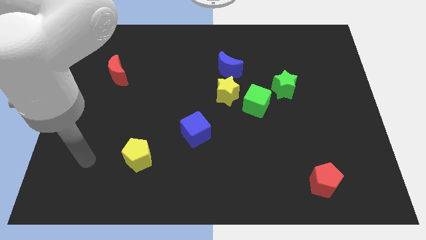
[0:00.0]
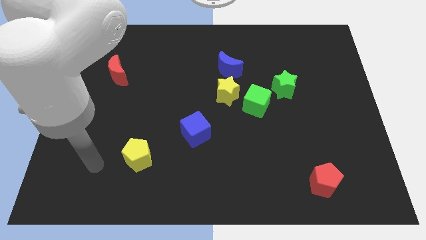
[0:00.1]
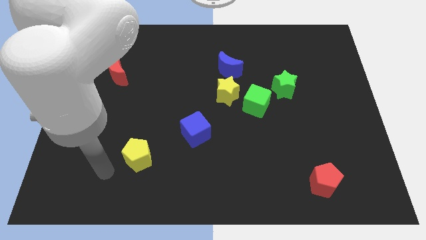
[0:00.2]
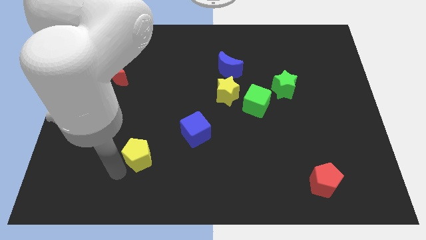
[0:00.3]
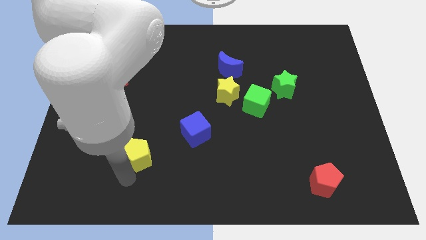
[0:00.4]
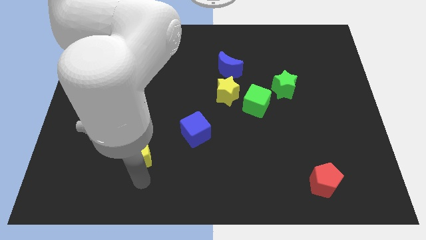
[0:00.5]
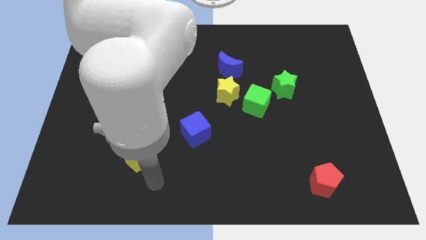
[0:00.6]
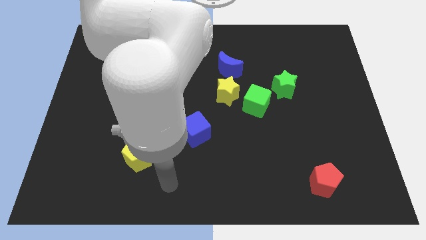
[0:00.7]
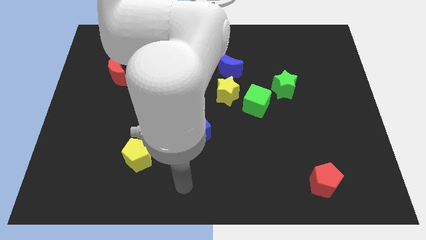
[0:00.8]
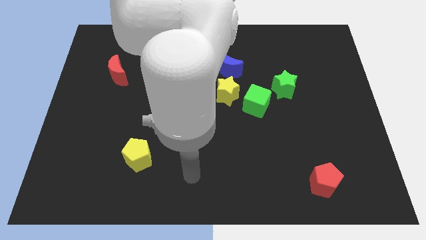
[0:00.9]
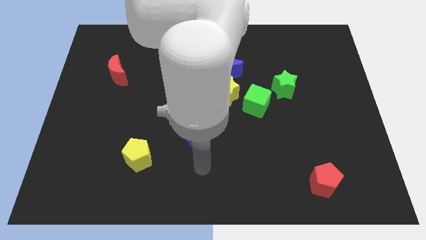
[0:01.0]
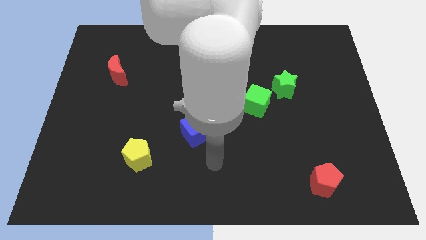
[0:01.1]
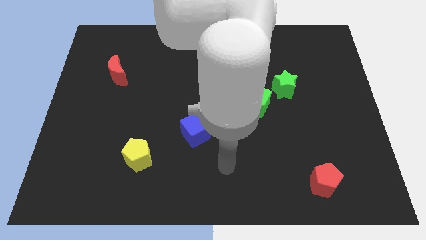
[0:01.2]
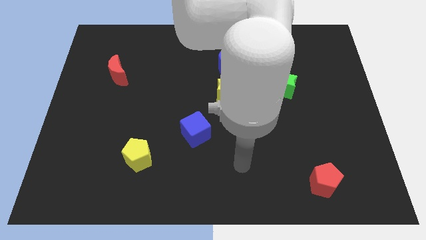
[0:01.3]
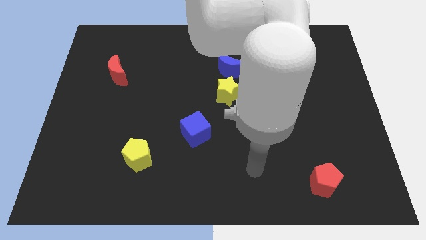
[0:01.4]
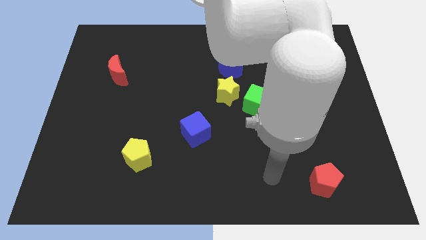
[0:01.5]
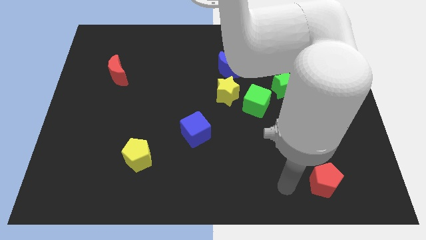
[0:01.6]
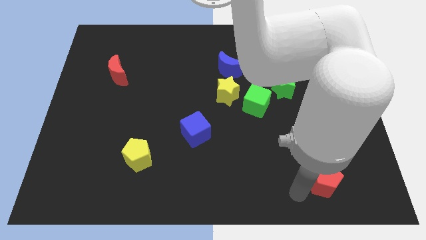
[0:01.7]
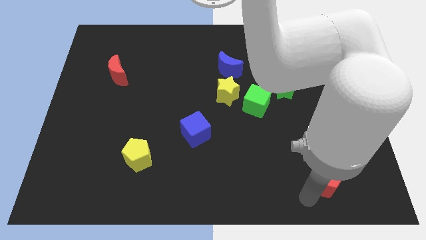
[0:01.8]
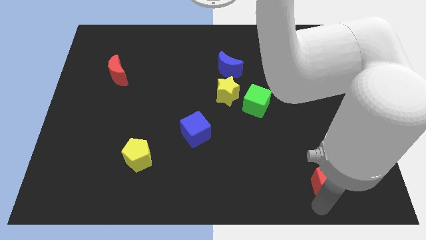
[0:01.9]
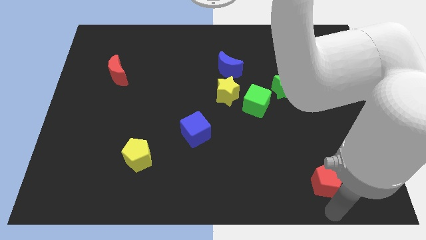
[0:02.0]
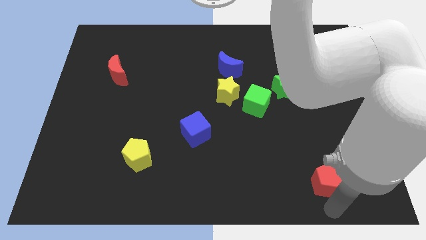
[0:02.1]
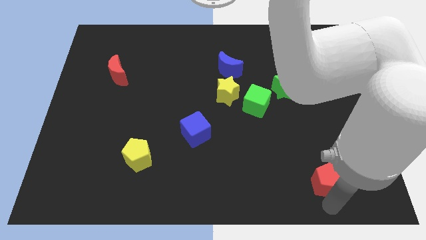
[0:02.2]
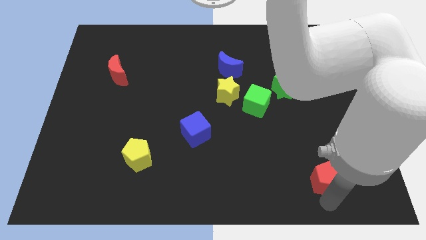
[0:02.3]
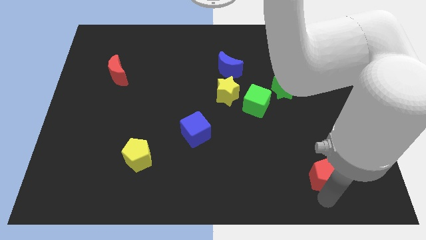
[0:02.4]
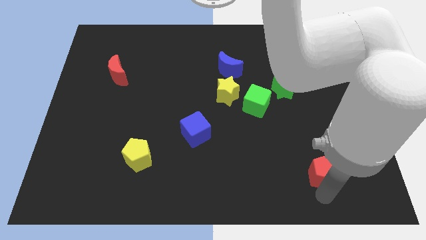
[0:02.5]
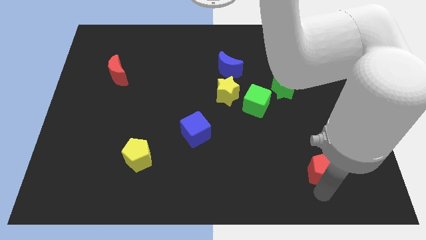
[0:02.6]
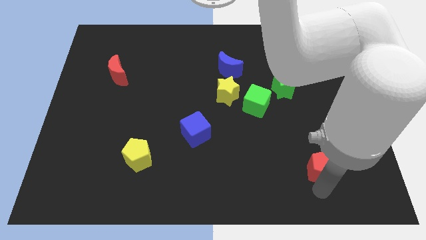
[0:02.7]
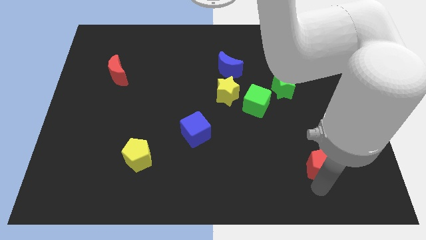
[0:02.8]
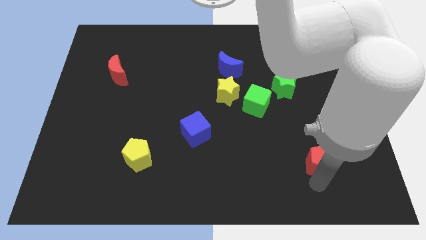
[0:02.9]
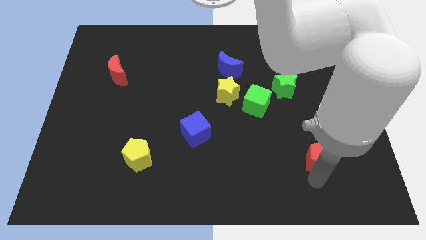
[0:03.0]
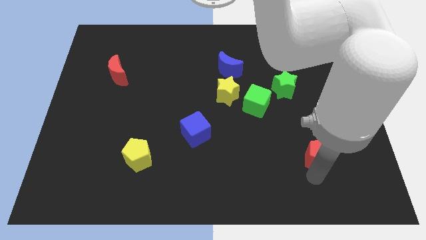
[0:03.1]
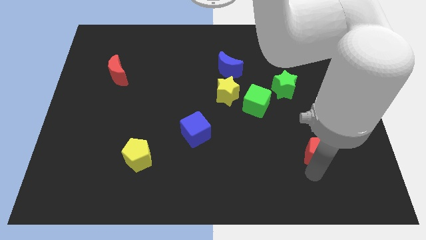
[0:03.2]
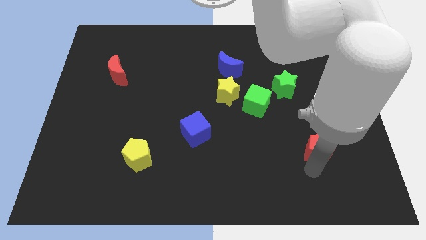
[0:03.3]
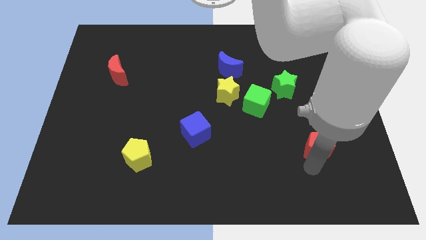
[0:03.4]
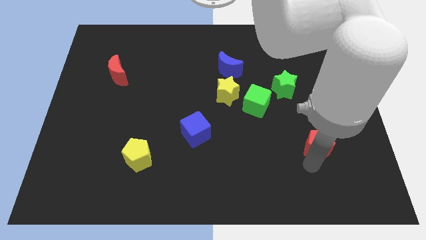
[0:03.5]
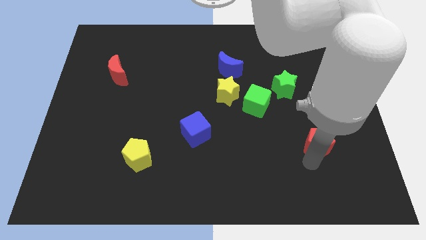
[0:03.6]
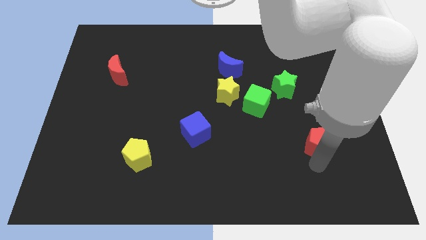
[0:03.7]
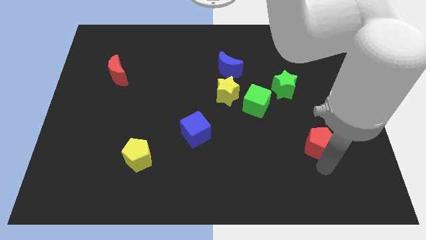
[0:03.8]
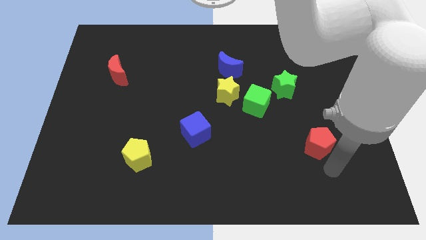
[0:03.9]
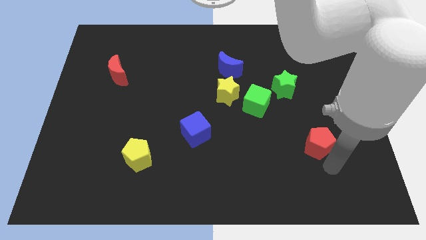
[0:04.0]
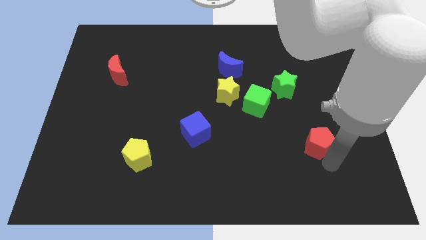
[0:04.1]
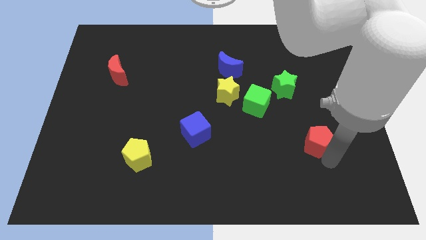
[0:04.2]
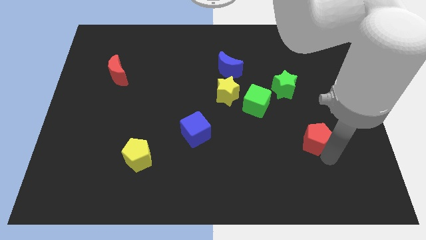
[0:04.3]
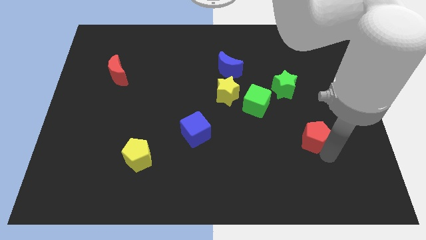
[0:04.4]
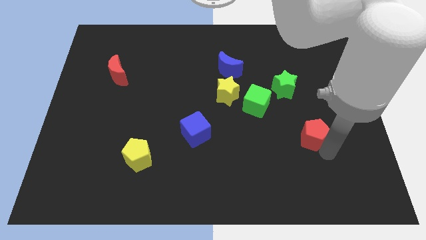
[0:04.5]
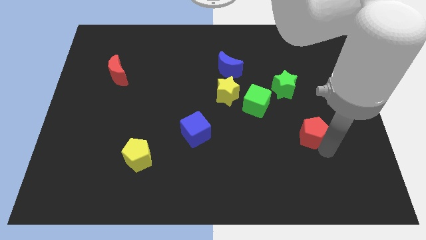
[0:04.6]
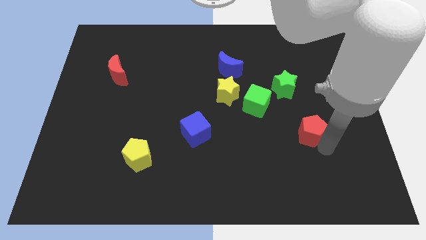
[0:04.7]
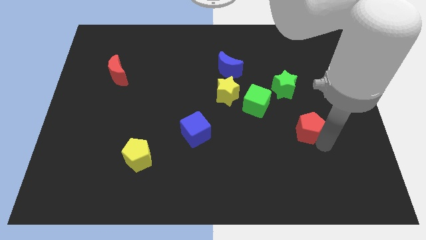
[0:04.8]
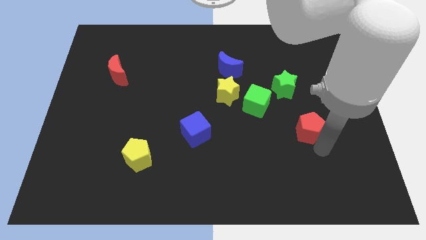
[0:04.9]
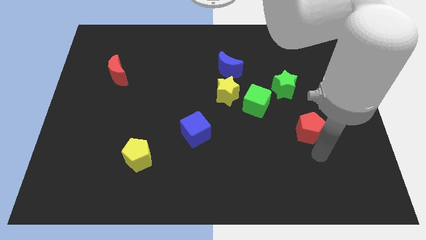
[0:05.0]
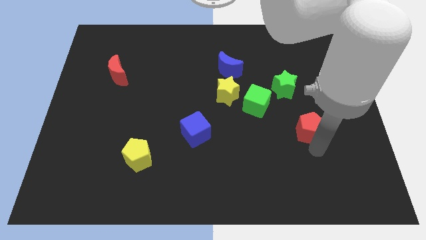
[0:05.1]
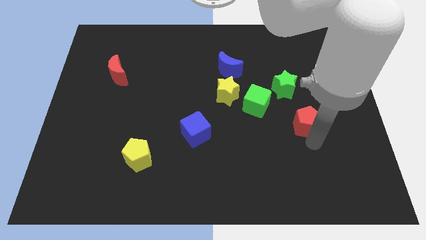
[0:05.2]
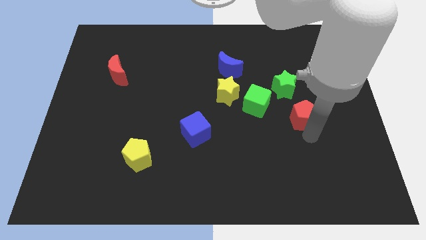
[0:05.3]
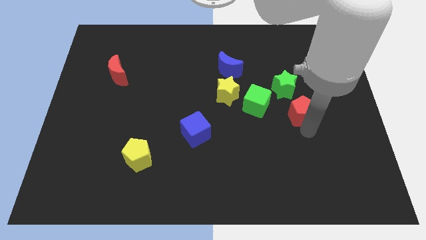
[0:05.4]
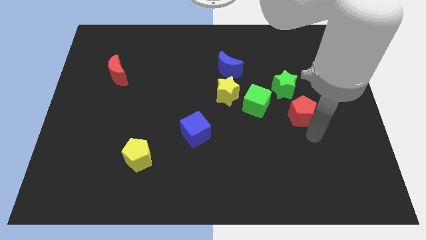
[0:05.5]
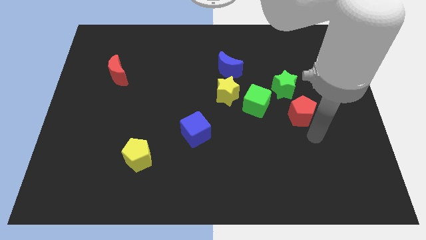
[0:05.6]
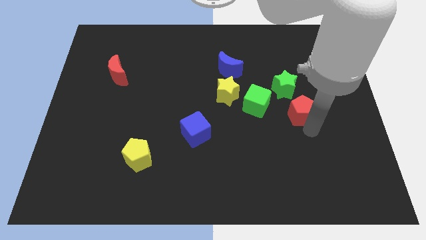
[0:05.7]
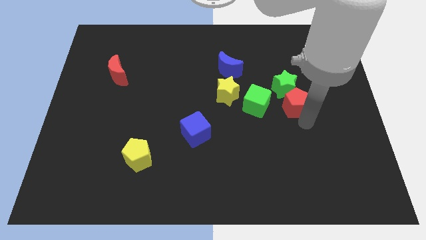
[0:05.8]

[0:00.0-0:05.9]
push the red pentagon to the green star

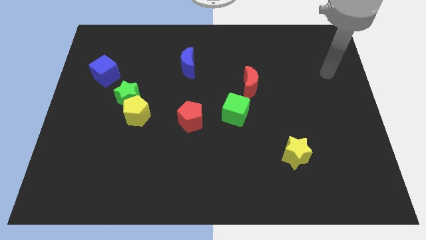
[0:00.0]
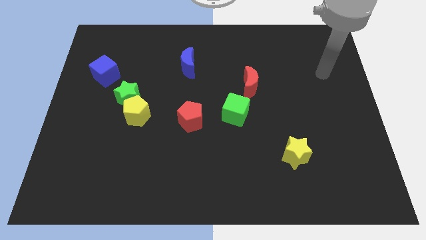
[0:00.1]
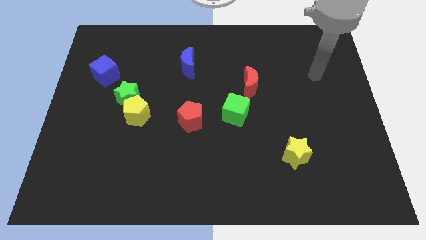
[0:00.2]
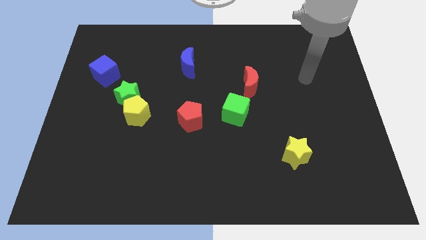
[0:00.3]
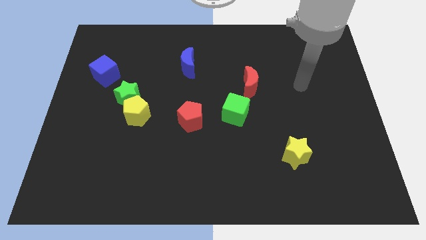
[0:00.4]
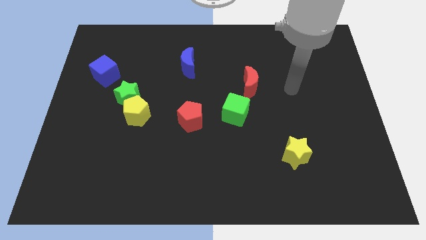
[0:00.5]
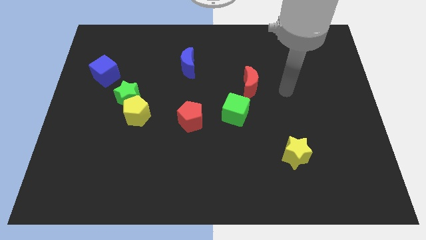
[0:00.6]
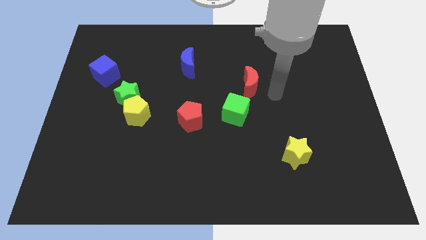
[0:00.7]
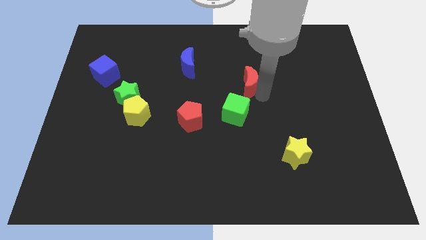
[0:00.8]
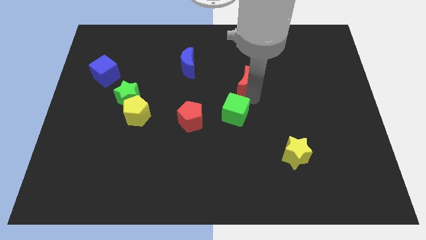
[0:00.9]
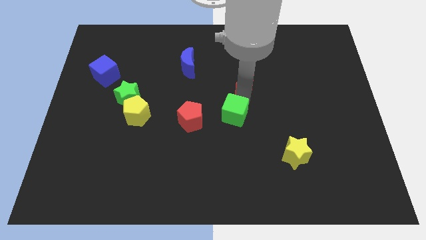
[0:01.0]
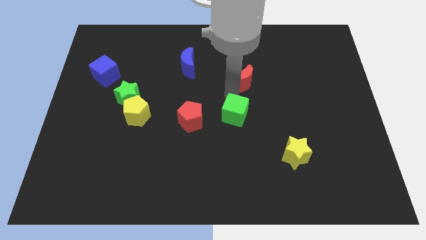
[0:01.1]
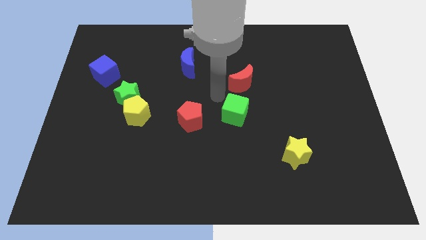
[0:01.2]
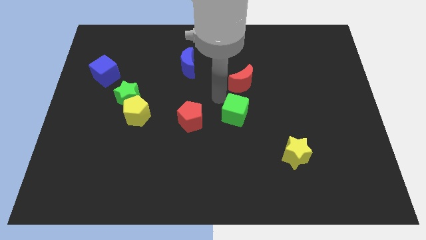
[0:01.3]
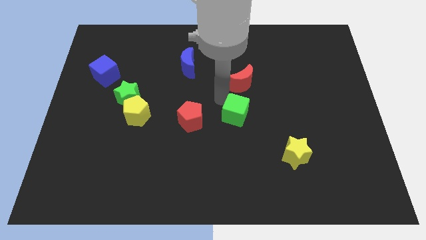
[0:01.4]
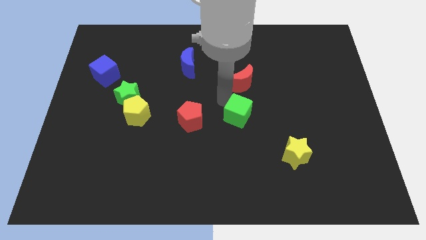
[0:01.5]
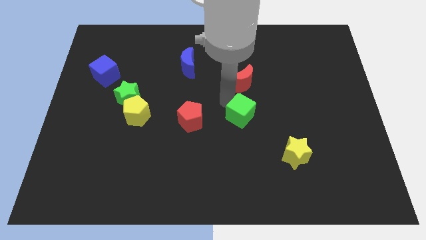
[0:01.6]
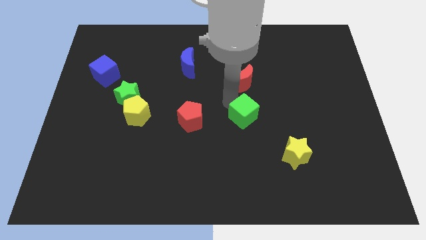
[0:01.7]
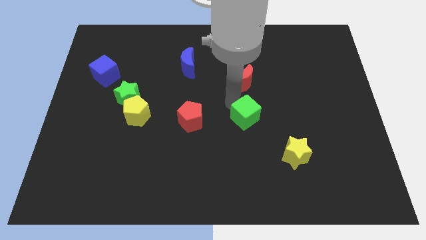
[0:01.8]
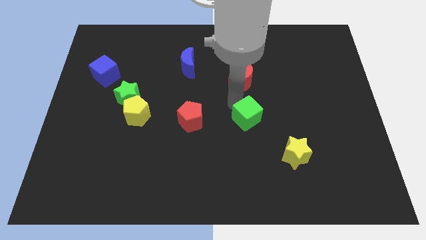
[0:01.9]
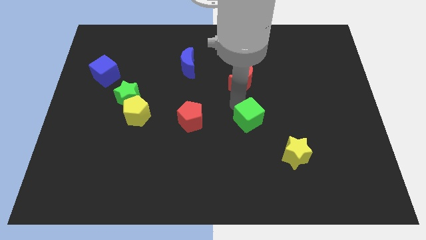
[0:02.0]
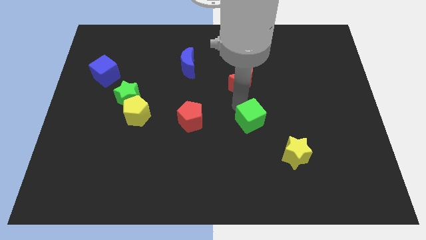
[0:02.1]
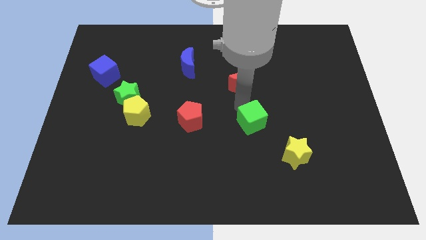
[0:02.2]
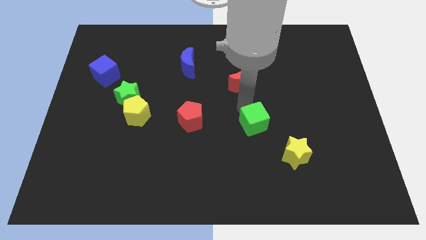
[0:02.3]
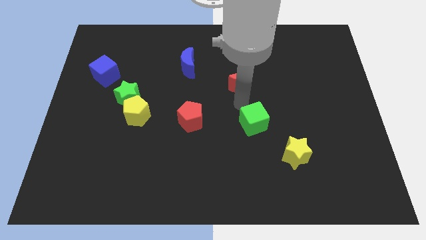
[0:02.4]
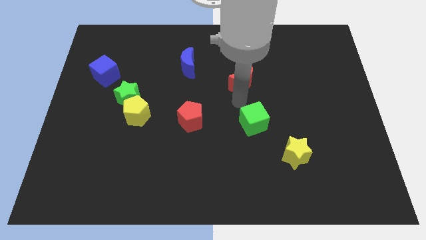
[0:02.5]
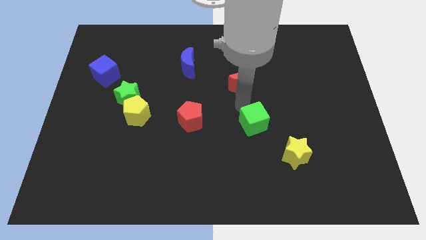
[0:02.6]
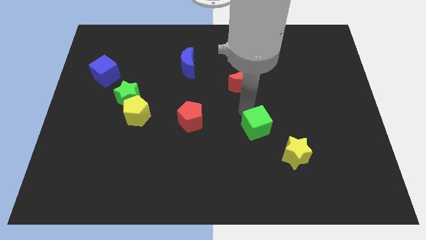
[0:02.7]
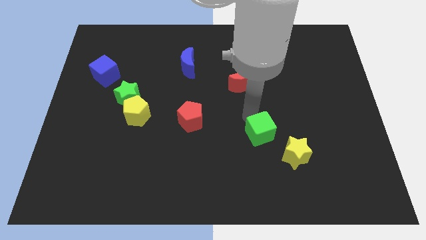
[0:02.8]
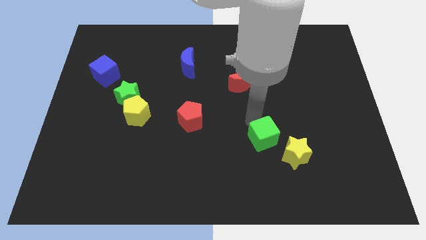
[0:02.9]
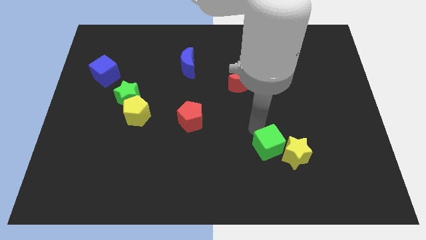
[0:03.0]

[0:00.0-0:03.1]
slide the green cube towards the yellow star
